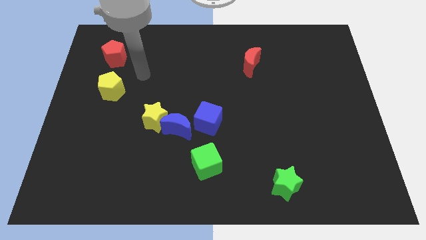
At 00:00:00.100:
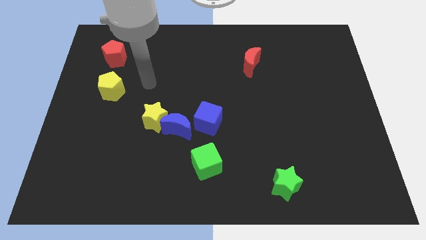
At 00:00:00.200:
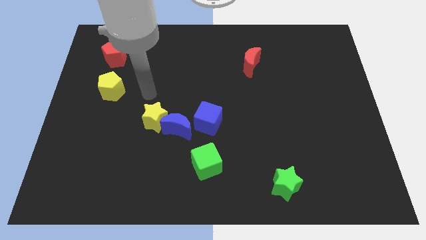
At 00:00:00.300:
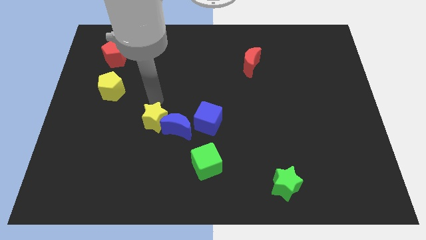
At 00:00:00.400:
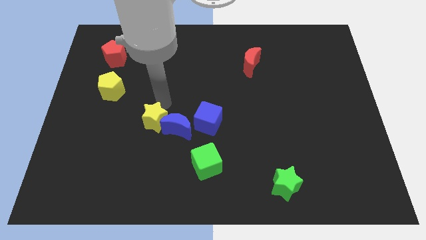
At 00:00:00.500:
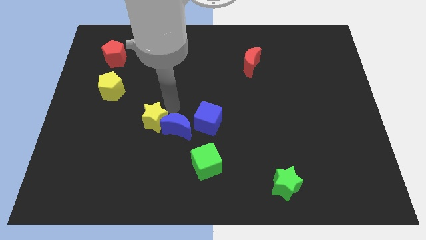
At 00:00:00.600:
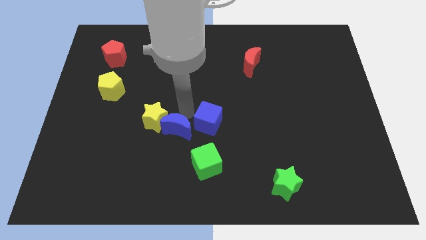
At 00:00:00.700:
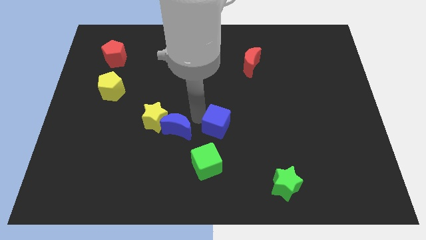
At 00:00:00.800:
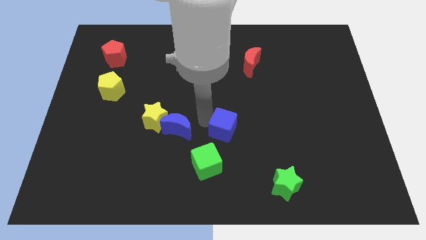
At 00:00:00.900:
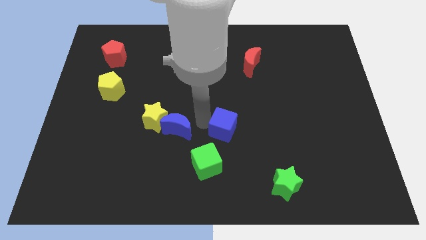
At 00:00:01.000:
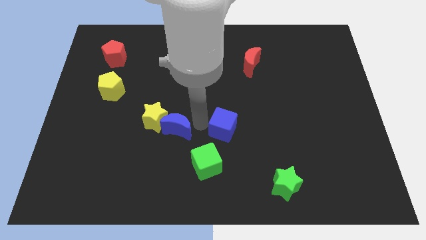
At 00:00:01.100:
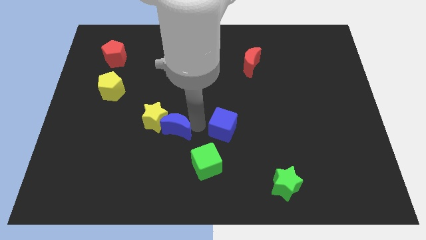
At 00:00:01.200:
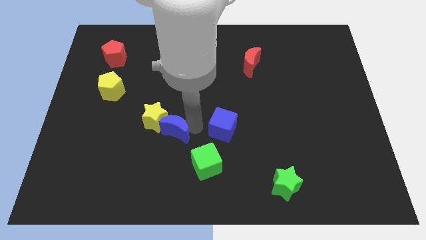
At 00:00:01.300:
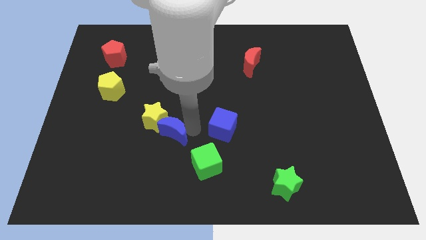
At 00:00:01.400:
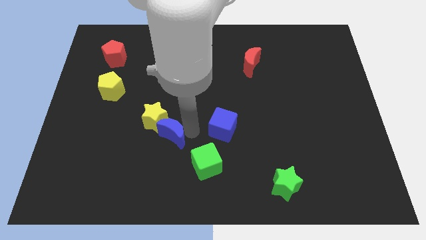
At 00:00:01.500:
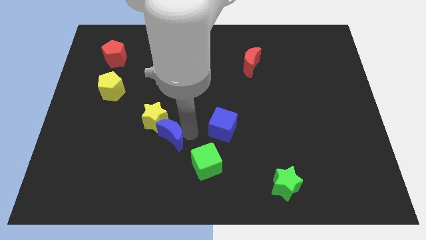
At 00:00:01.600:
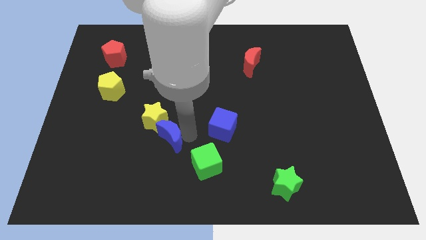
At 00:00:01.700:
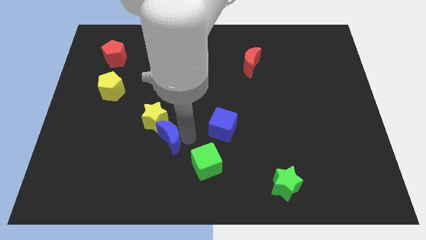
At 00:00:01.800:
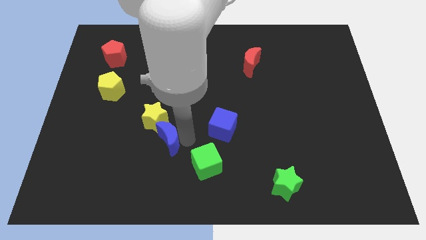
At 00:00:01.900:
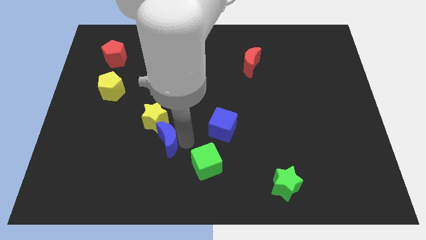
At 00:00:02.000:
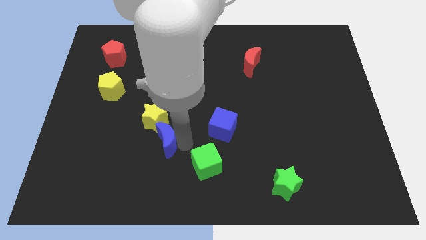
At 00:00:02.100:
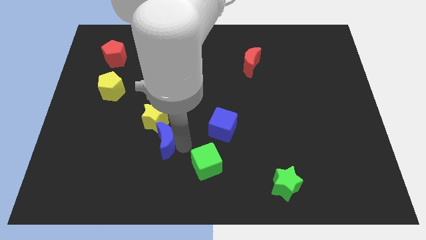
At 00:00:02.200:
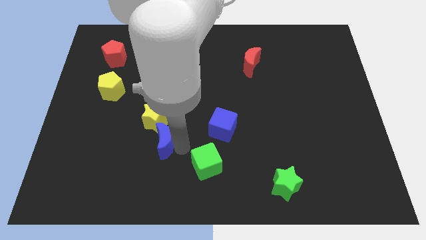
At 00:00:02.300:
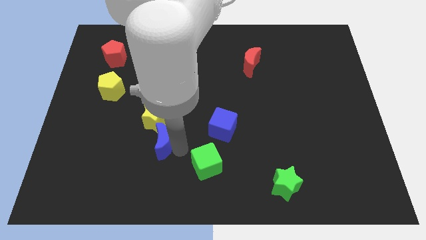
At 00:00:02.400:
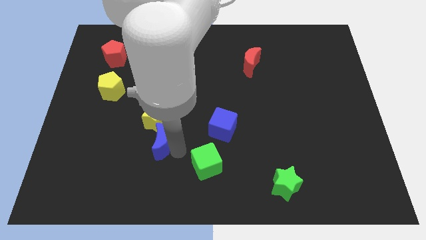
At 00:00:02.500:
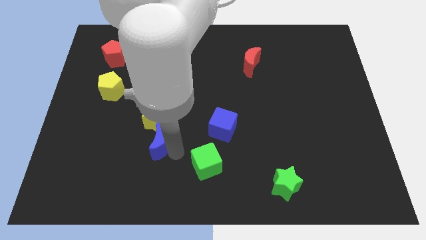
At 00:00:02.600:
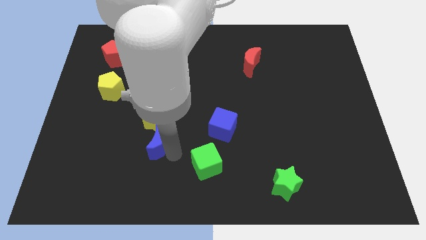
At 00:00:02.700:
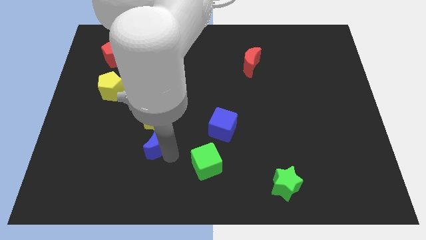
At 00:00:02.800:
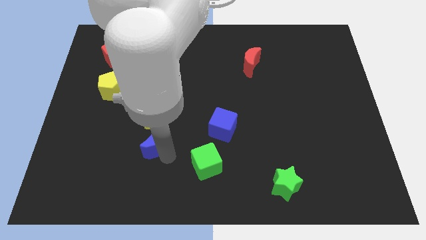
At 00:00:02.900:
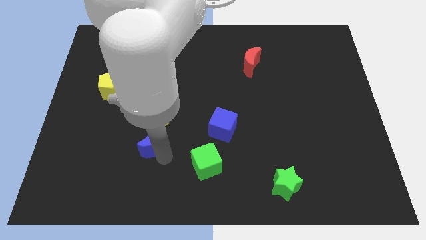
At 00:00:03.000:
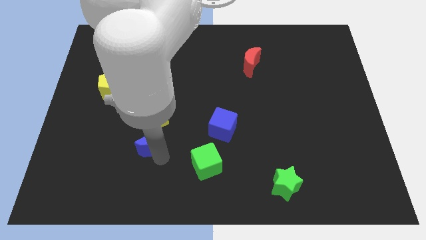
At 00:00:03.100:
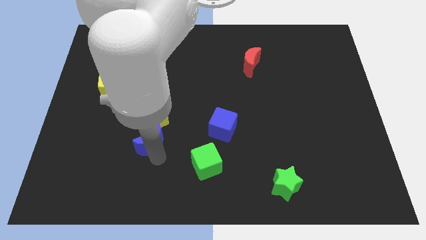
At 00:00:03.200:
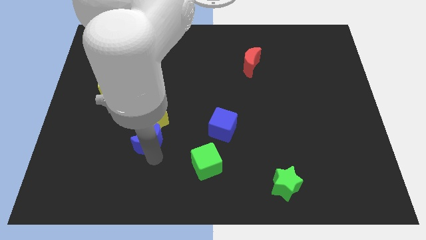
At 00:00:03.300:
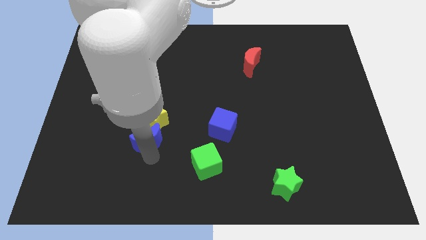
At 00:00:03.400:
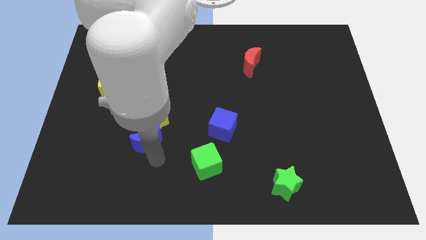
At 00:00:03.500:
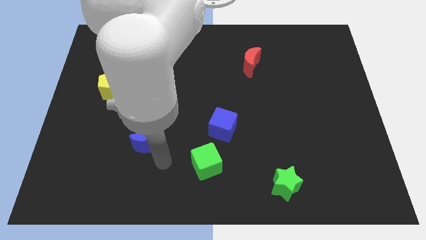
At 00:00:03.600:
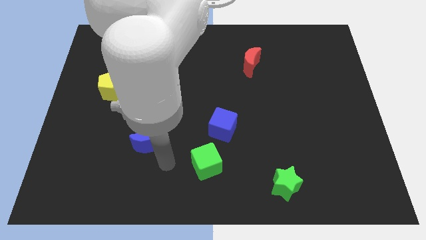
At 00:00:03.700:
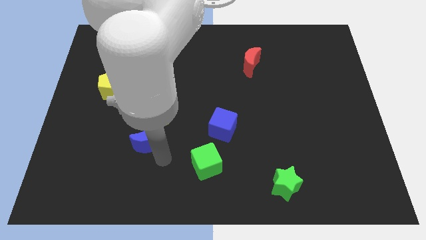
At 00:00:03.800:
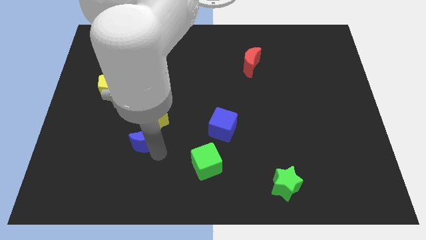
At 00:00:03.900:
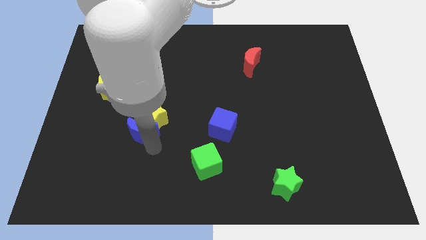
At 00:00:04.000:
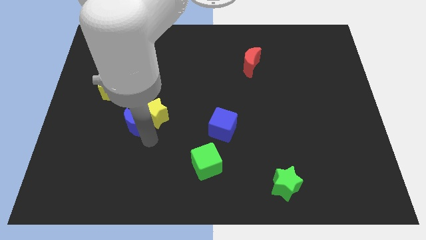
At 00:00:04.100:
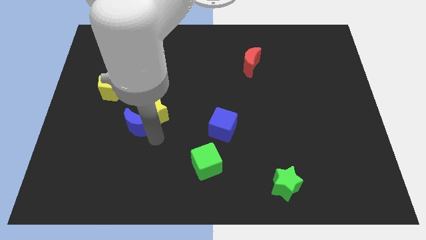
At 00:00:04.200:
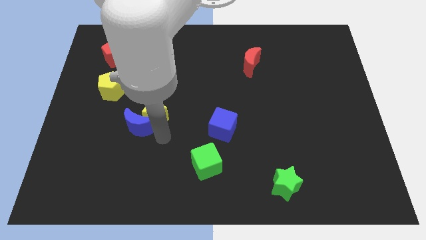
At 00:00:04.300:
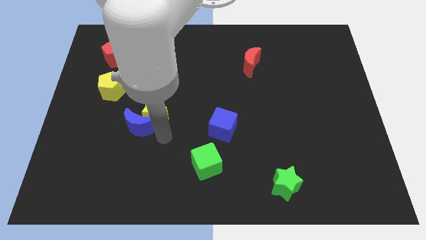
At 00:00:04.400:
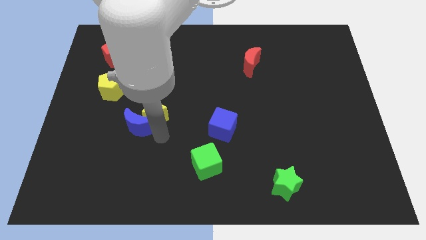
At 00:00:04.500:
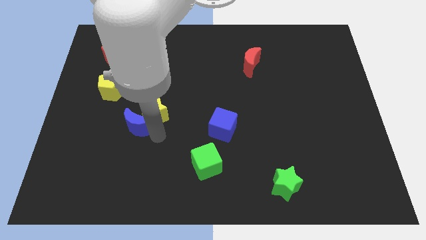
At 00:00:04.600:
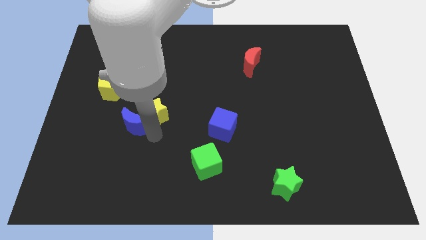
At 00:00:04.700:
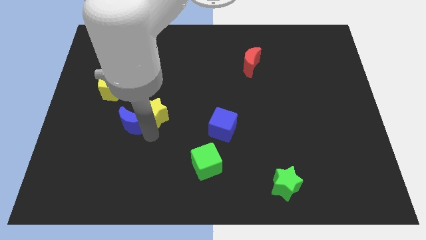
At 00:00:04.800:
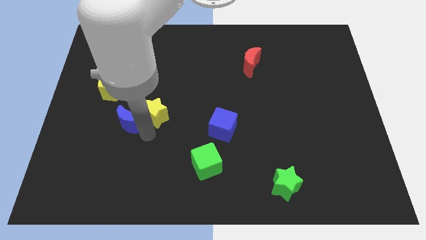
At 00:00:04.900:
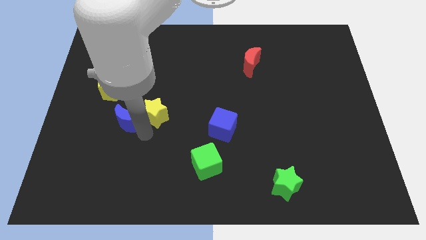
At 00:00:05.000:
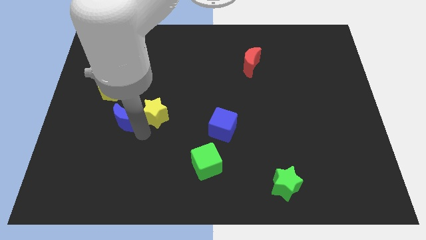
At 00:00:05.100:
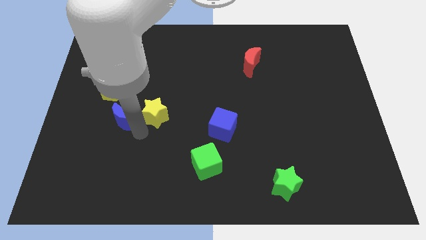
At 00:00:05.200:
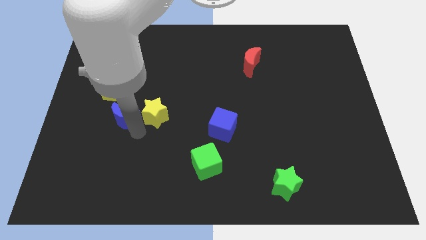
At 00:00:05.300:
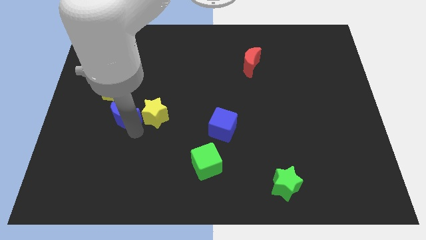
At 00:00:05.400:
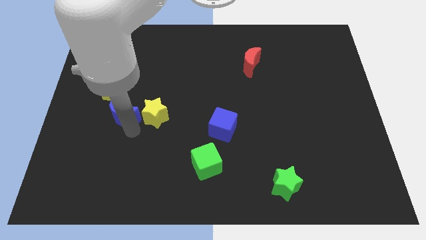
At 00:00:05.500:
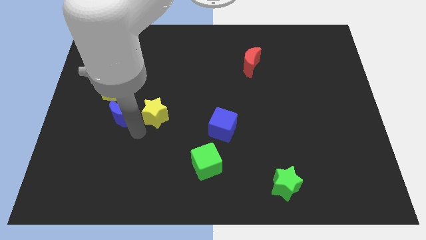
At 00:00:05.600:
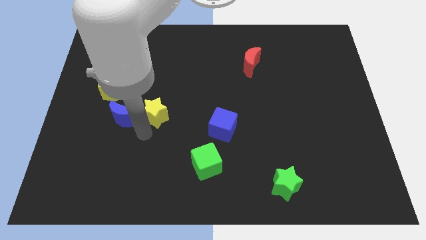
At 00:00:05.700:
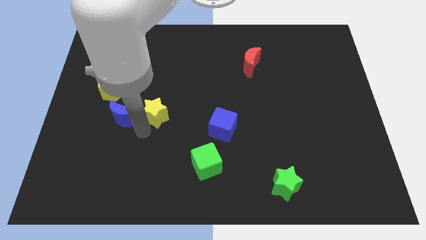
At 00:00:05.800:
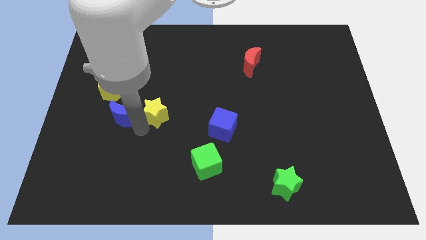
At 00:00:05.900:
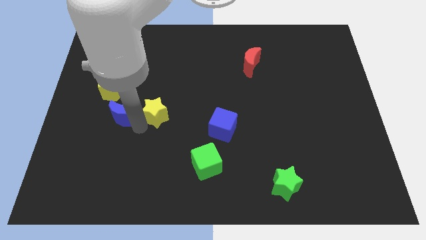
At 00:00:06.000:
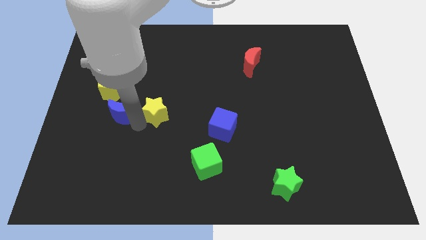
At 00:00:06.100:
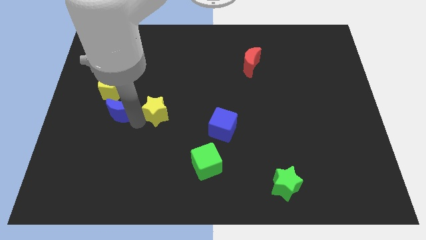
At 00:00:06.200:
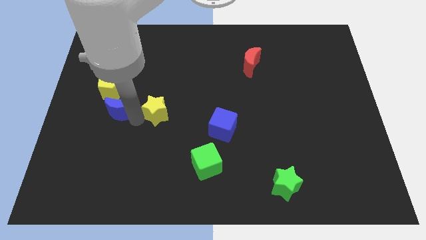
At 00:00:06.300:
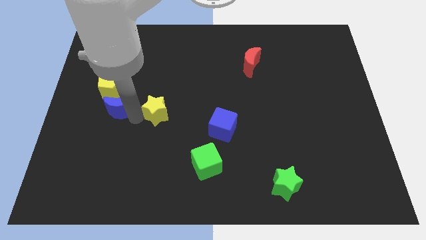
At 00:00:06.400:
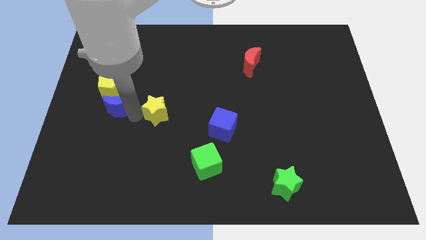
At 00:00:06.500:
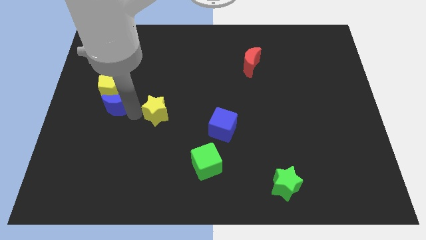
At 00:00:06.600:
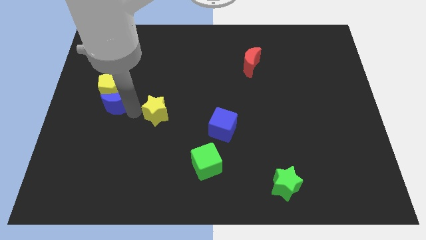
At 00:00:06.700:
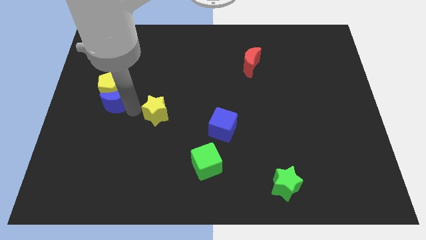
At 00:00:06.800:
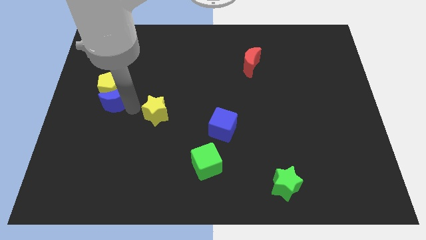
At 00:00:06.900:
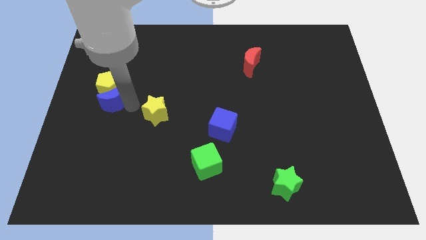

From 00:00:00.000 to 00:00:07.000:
push the blue moon below the red pentagon
